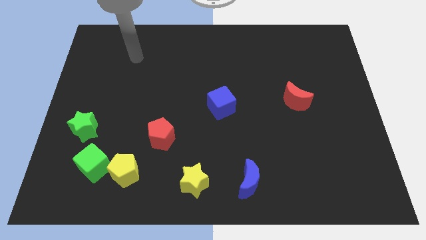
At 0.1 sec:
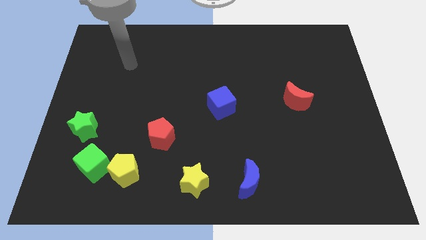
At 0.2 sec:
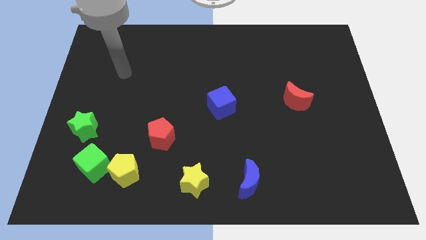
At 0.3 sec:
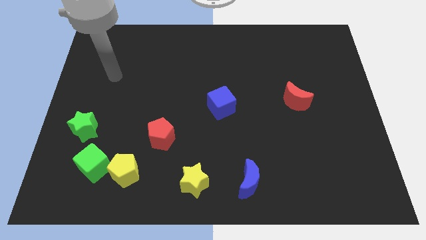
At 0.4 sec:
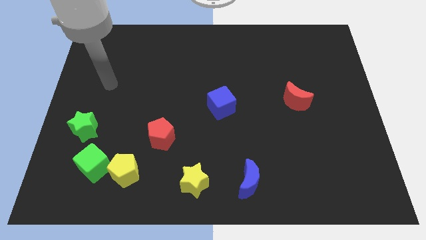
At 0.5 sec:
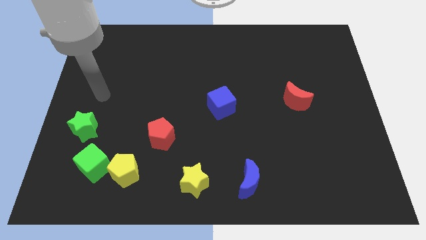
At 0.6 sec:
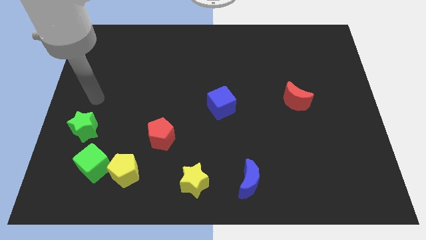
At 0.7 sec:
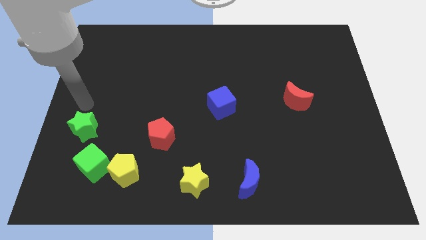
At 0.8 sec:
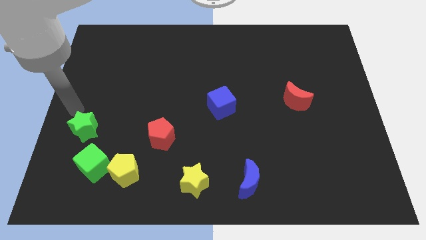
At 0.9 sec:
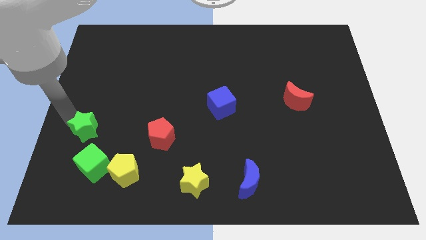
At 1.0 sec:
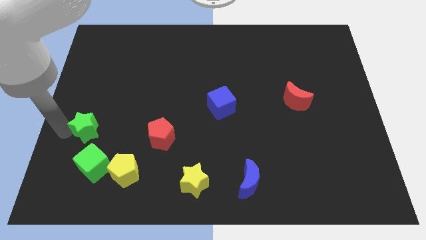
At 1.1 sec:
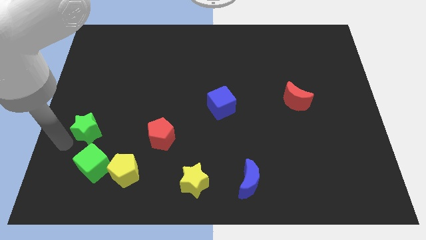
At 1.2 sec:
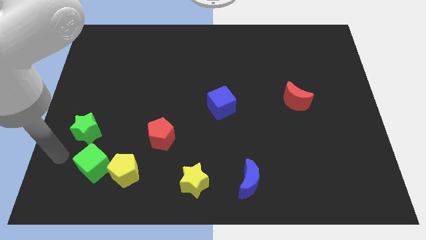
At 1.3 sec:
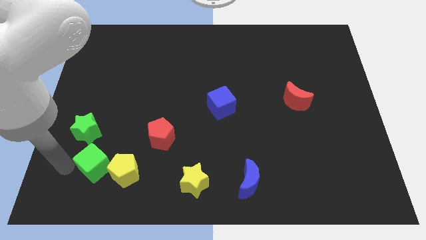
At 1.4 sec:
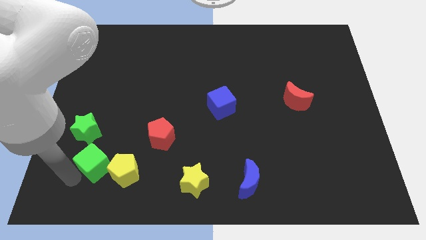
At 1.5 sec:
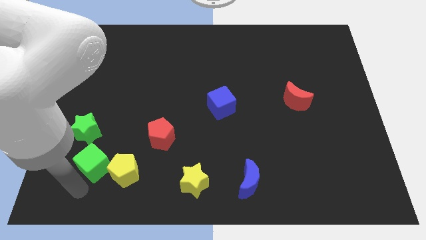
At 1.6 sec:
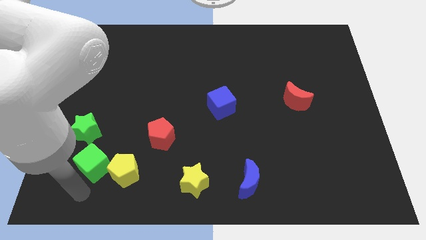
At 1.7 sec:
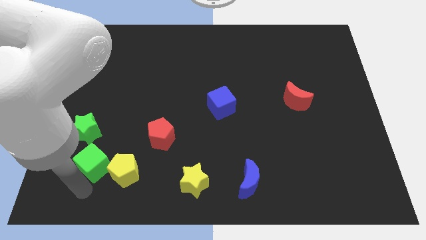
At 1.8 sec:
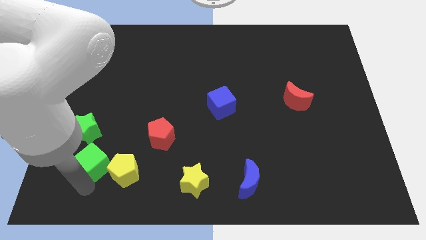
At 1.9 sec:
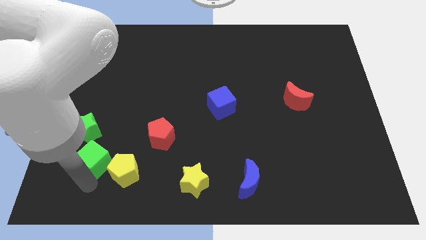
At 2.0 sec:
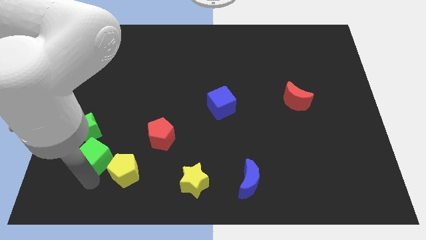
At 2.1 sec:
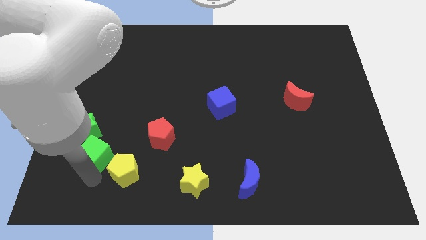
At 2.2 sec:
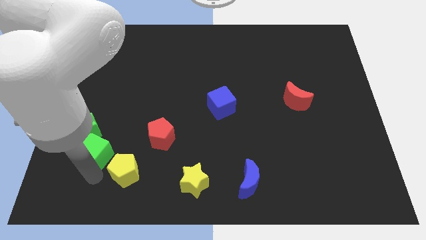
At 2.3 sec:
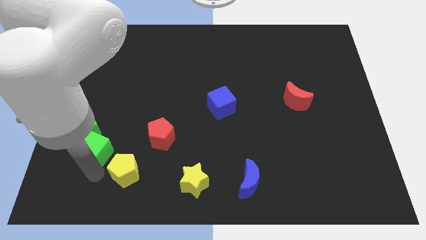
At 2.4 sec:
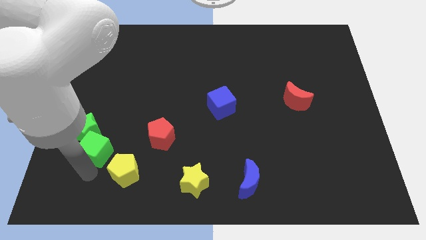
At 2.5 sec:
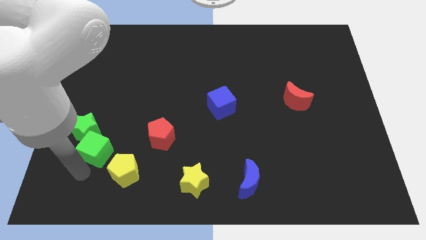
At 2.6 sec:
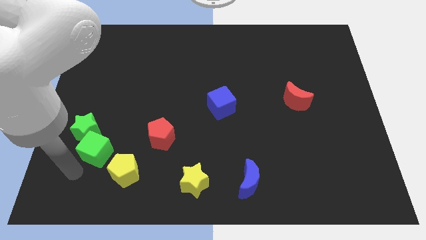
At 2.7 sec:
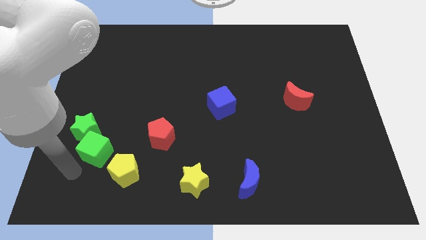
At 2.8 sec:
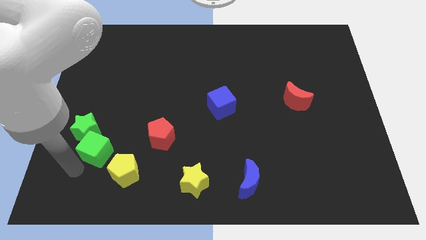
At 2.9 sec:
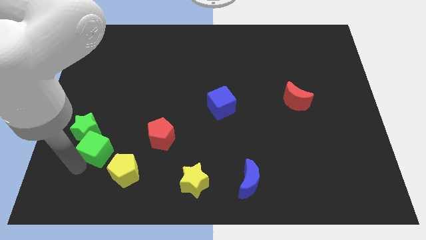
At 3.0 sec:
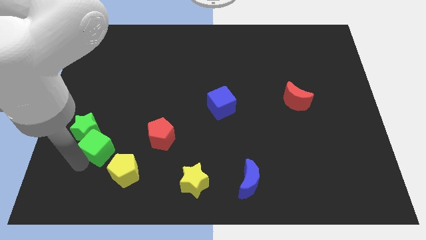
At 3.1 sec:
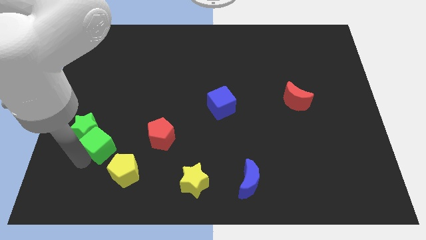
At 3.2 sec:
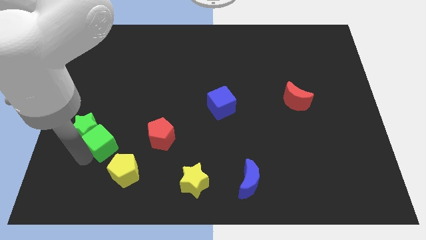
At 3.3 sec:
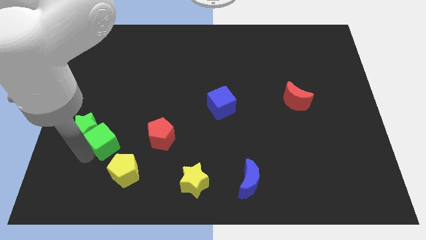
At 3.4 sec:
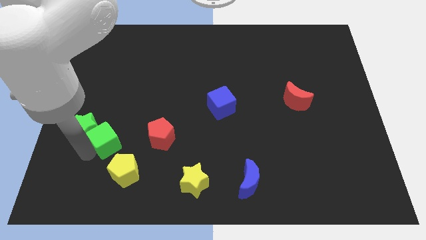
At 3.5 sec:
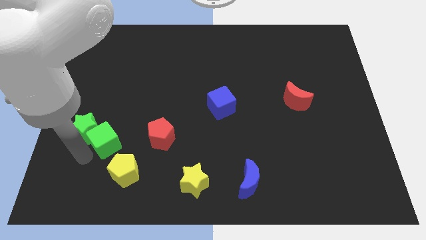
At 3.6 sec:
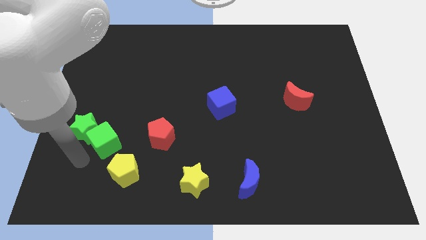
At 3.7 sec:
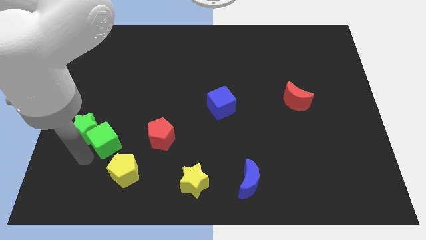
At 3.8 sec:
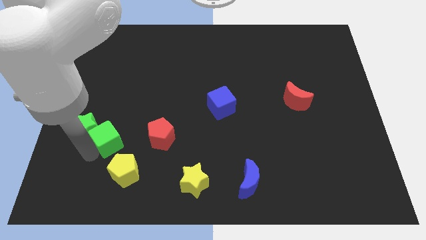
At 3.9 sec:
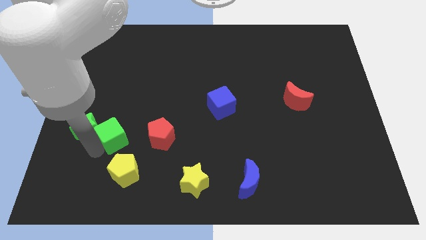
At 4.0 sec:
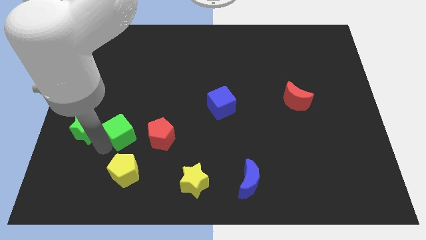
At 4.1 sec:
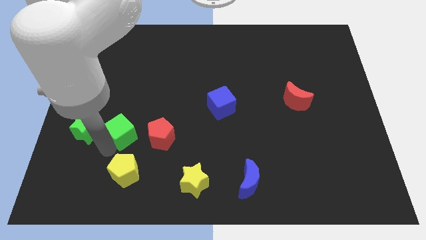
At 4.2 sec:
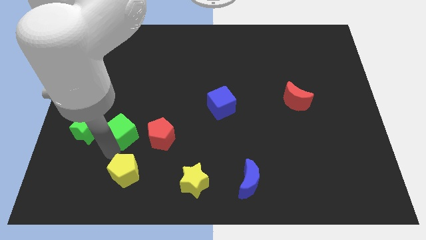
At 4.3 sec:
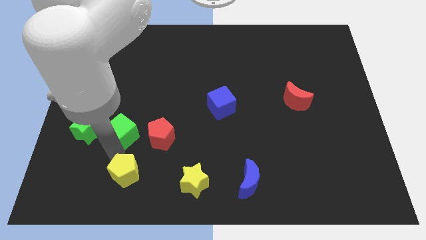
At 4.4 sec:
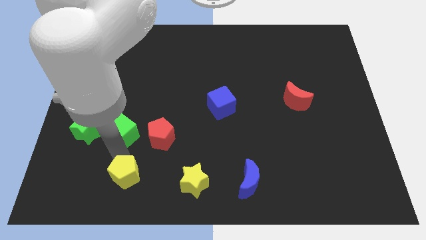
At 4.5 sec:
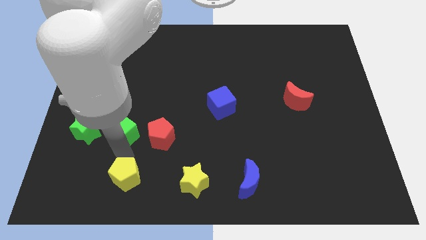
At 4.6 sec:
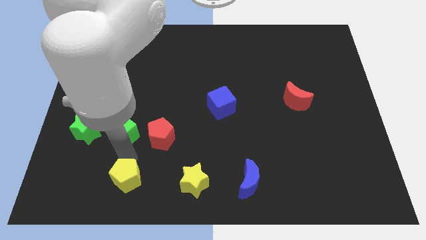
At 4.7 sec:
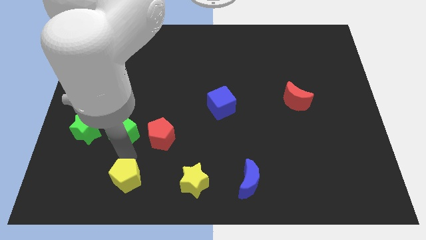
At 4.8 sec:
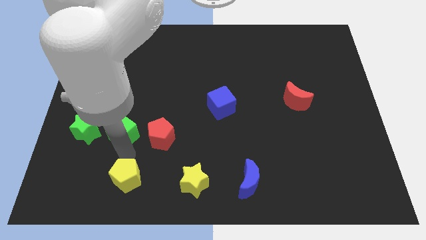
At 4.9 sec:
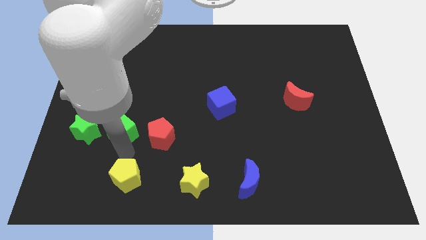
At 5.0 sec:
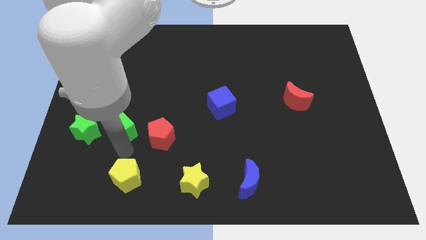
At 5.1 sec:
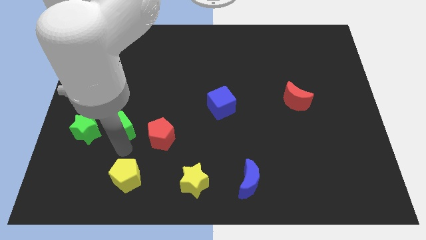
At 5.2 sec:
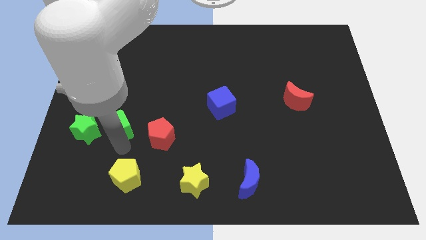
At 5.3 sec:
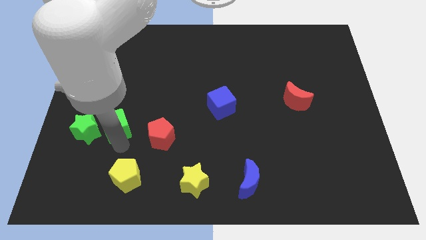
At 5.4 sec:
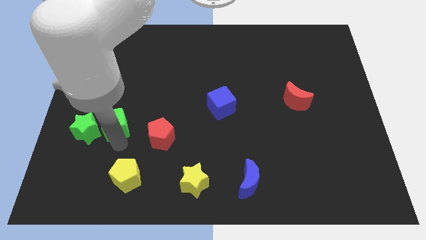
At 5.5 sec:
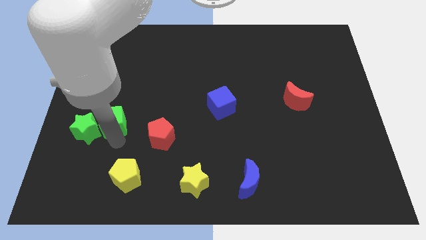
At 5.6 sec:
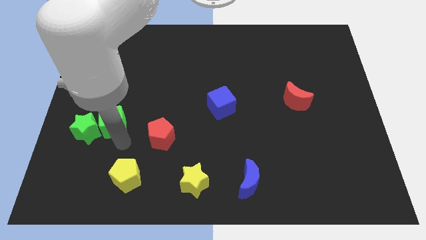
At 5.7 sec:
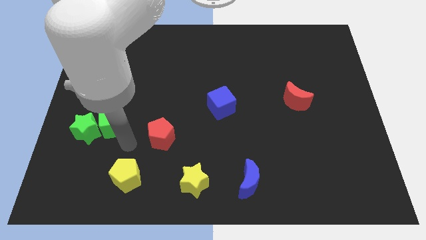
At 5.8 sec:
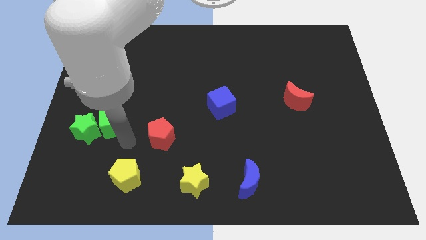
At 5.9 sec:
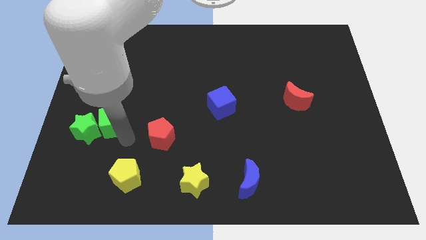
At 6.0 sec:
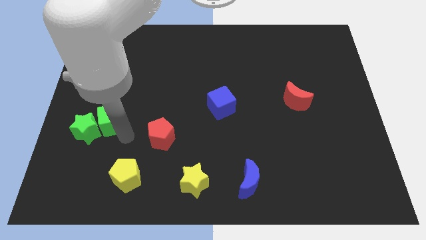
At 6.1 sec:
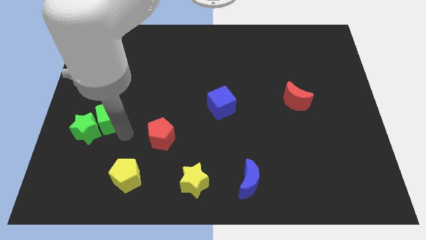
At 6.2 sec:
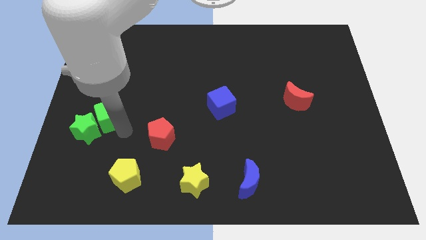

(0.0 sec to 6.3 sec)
push the green cube above the green star

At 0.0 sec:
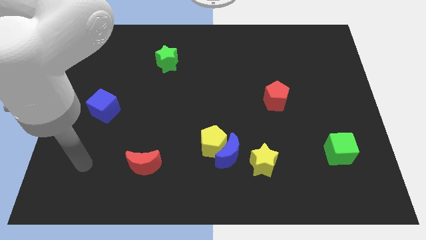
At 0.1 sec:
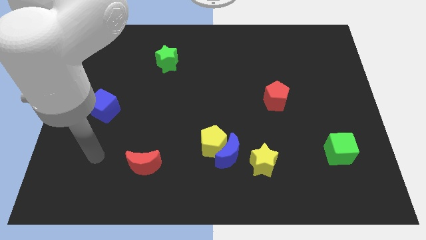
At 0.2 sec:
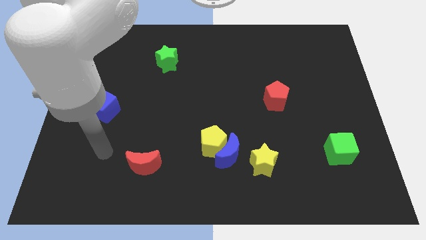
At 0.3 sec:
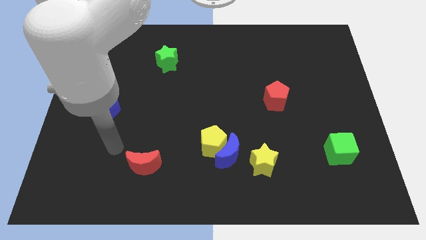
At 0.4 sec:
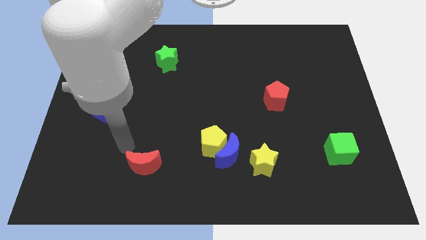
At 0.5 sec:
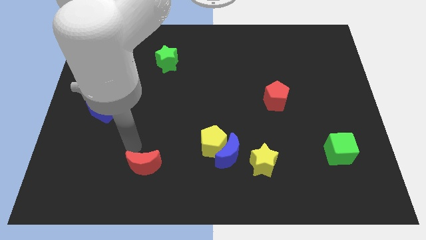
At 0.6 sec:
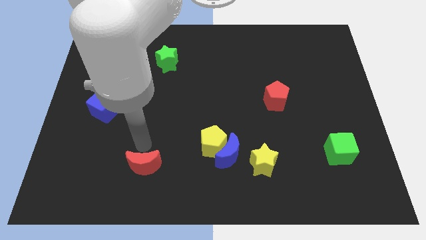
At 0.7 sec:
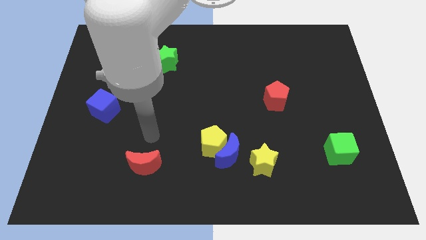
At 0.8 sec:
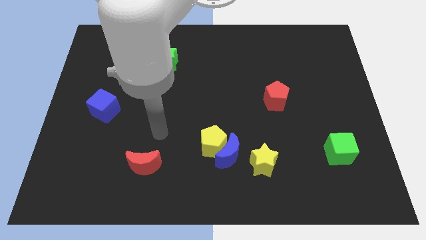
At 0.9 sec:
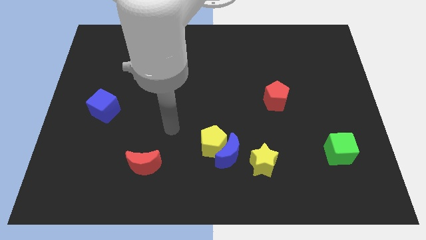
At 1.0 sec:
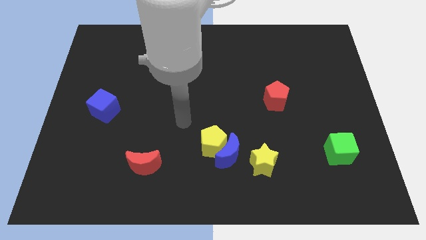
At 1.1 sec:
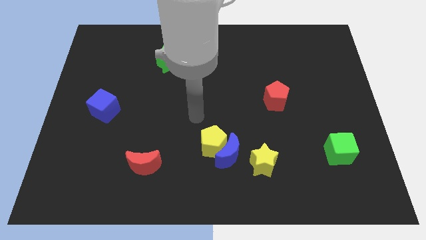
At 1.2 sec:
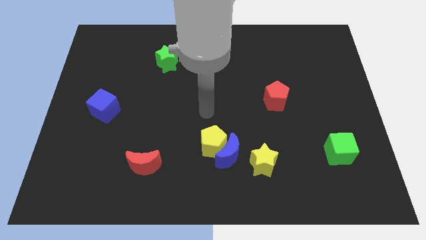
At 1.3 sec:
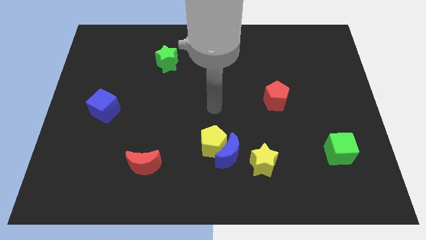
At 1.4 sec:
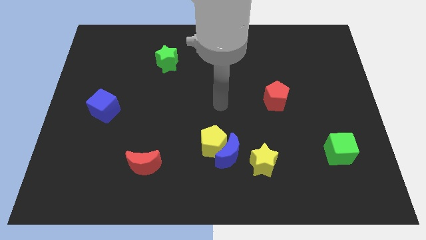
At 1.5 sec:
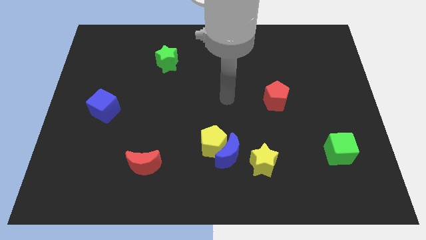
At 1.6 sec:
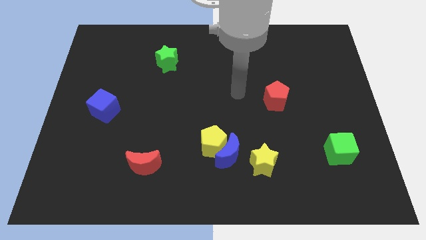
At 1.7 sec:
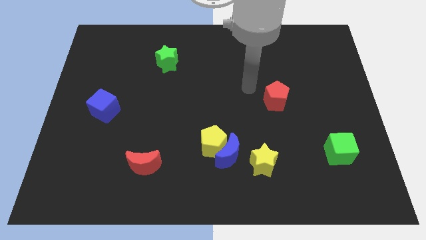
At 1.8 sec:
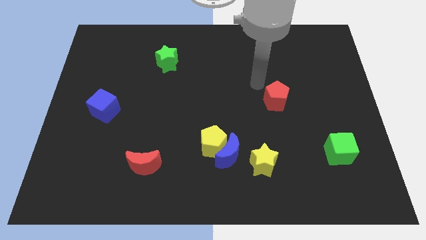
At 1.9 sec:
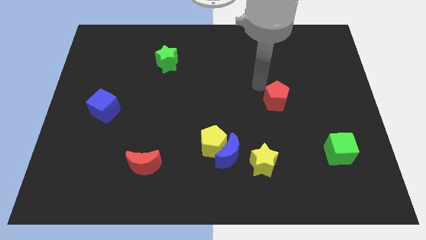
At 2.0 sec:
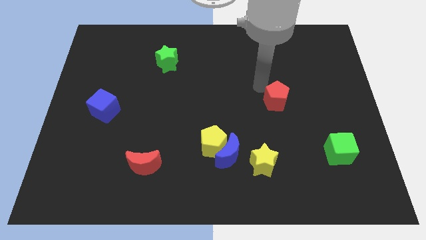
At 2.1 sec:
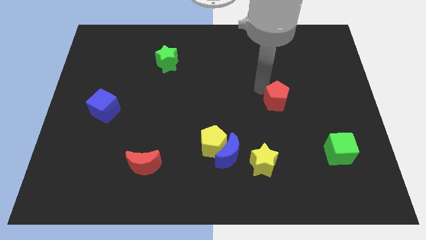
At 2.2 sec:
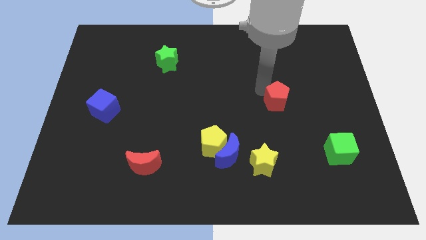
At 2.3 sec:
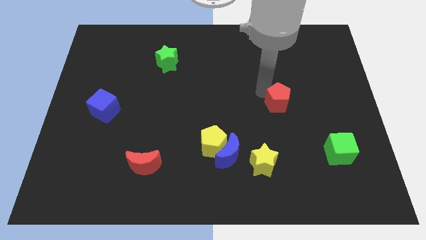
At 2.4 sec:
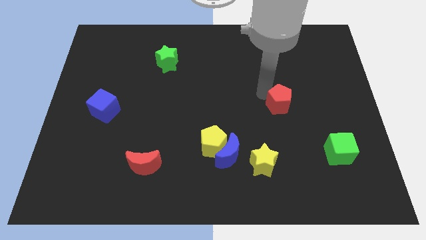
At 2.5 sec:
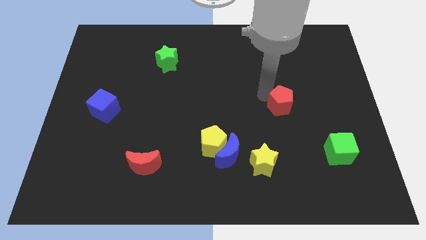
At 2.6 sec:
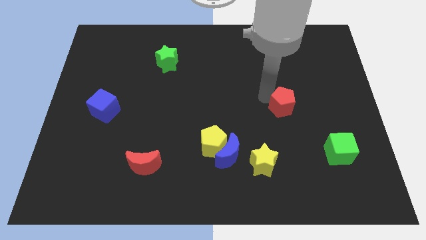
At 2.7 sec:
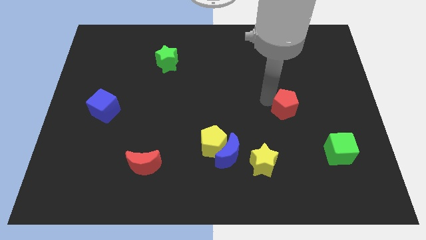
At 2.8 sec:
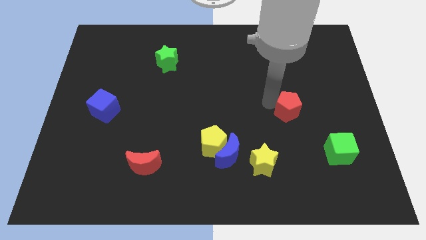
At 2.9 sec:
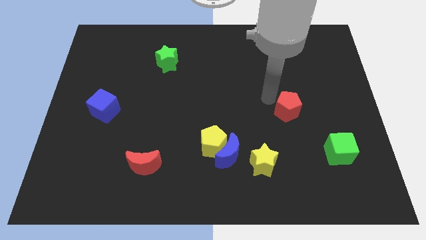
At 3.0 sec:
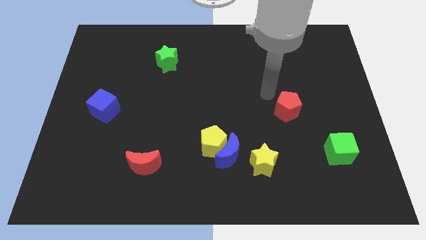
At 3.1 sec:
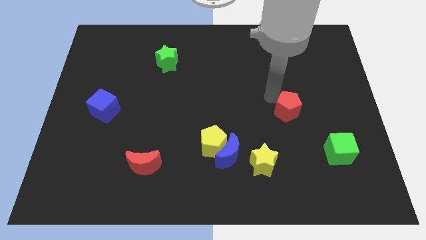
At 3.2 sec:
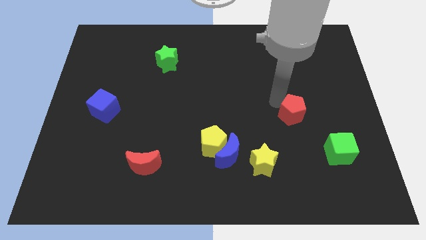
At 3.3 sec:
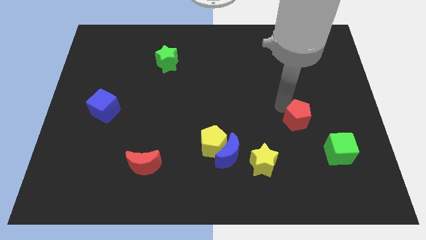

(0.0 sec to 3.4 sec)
slide the red pentagon diagonally up and to the left of the green cube
